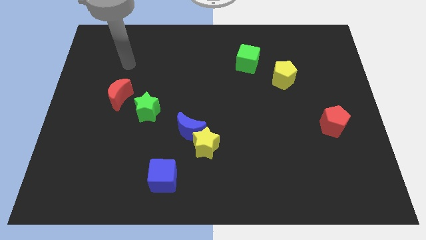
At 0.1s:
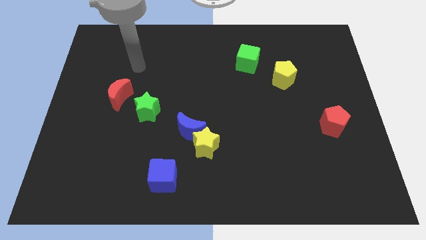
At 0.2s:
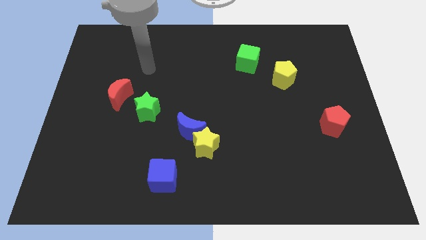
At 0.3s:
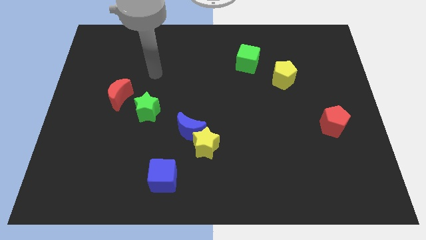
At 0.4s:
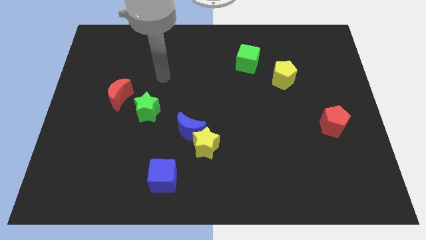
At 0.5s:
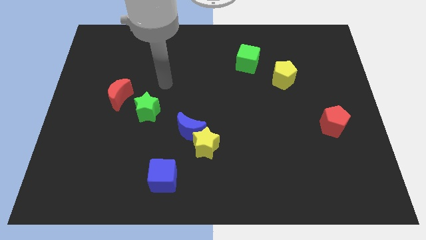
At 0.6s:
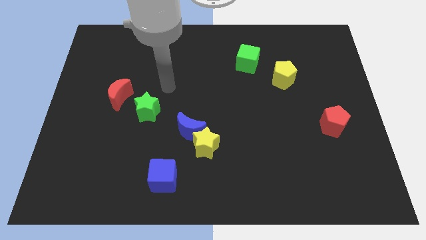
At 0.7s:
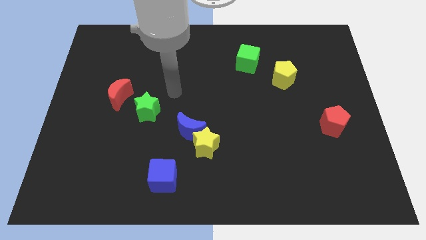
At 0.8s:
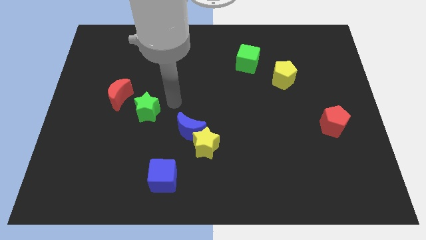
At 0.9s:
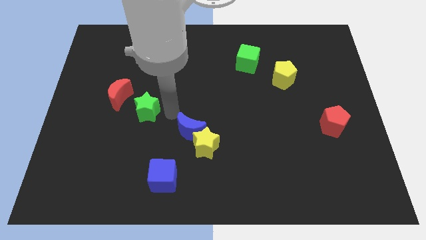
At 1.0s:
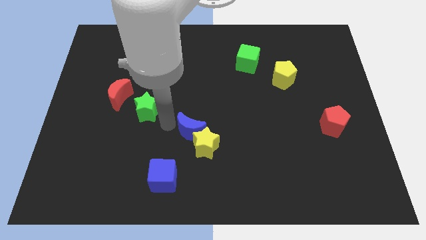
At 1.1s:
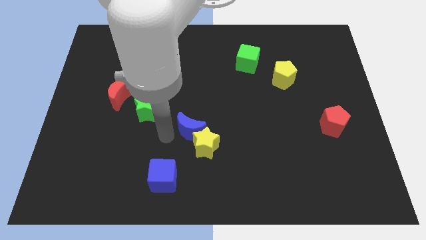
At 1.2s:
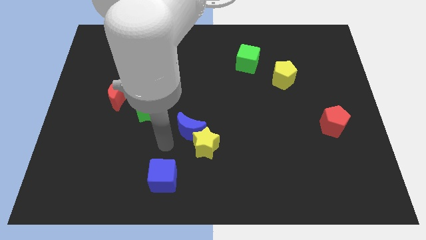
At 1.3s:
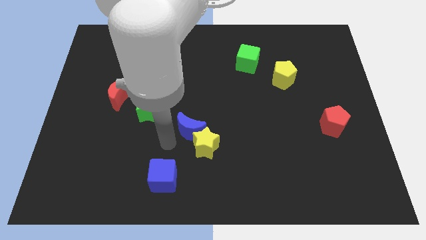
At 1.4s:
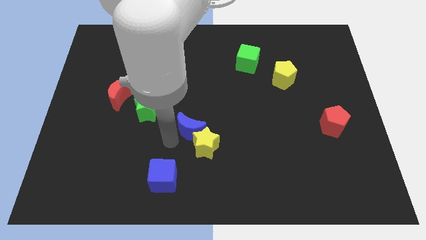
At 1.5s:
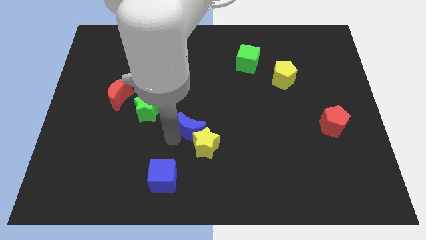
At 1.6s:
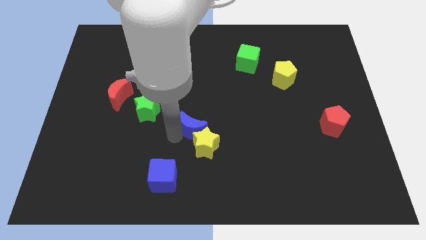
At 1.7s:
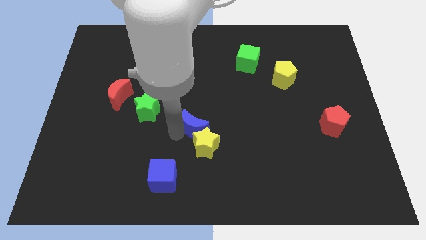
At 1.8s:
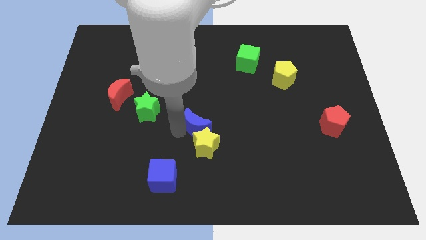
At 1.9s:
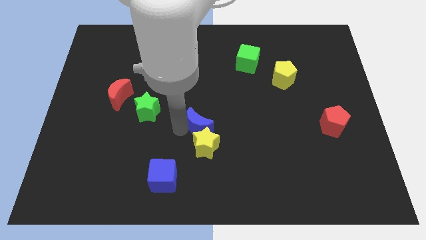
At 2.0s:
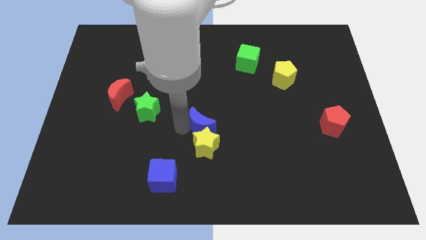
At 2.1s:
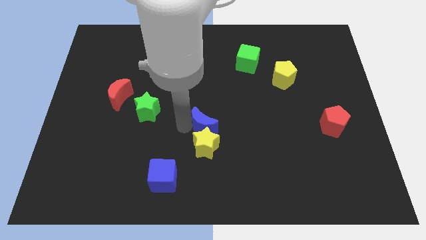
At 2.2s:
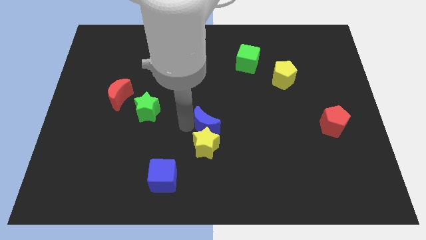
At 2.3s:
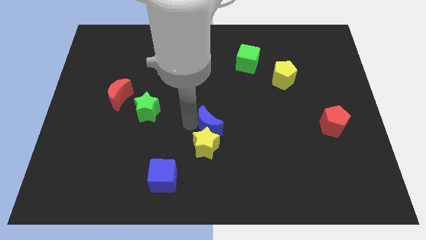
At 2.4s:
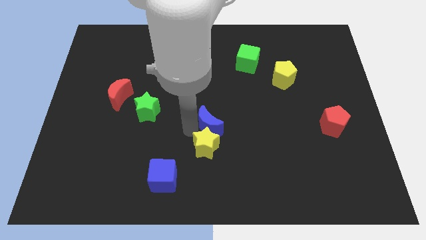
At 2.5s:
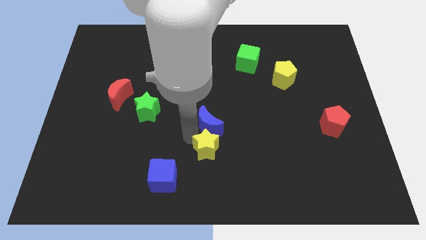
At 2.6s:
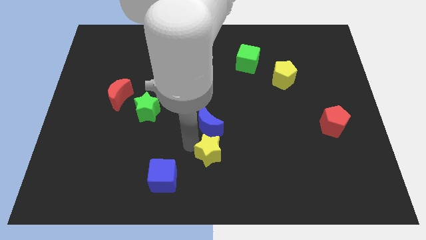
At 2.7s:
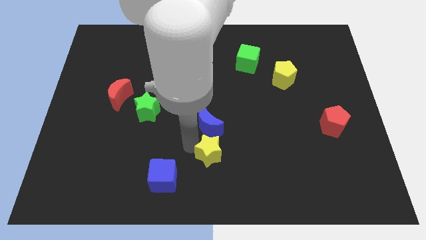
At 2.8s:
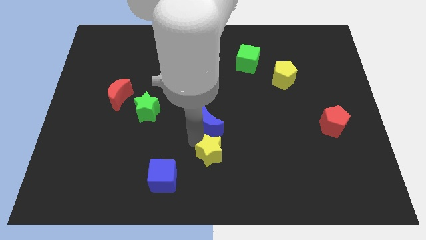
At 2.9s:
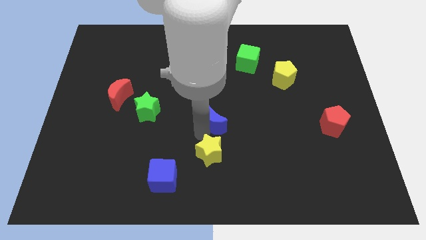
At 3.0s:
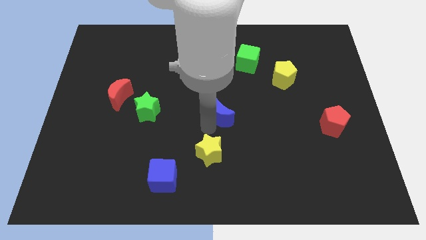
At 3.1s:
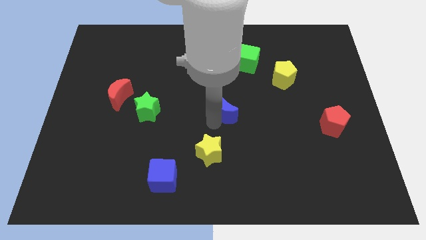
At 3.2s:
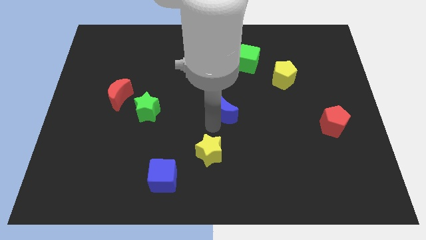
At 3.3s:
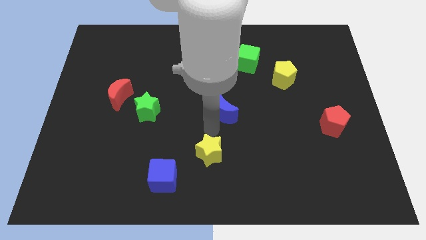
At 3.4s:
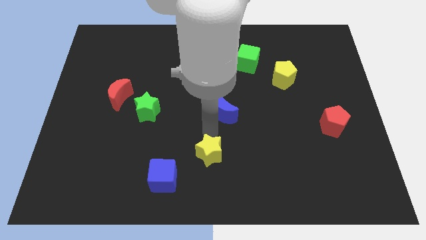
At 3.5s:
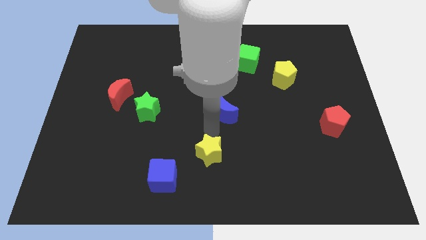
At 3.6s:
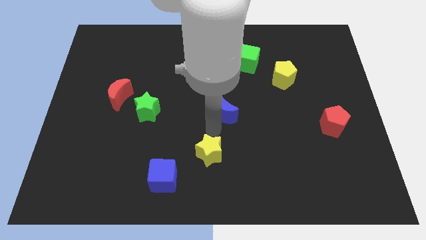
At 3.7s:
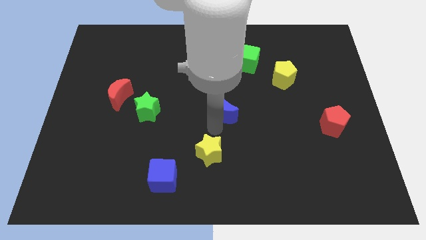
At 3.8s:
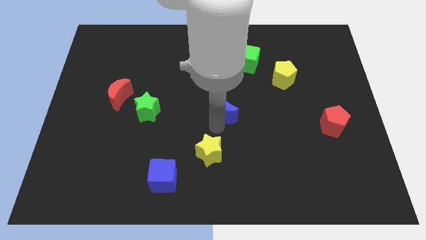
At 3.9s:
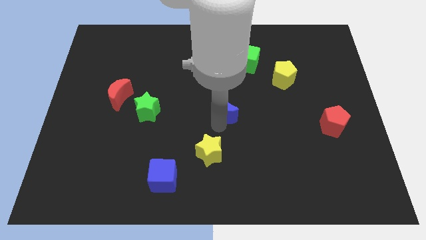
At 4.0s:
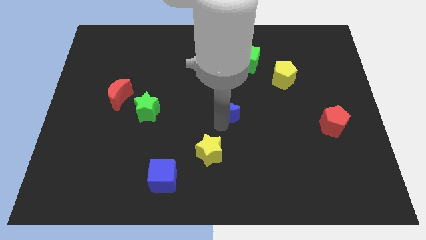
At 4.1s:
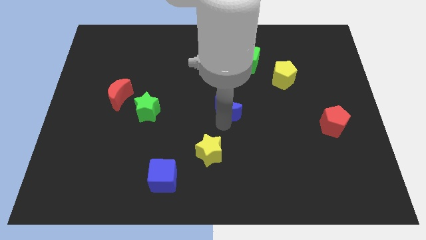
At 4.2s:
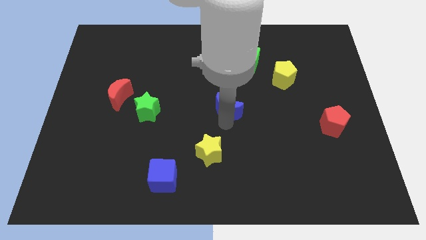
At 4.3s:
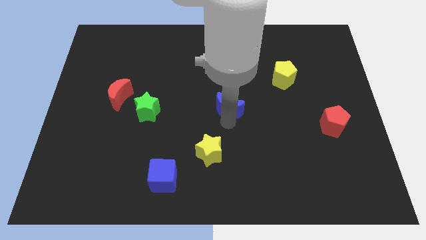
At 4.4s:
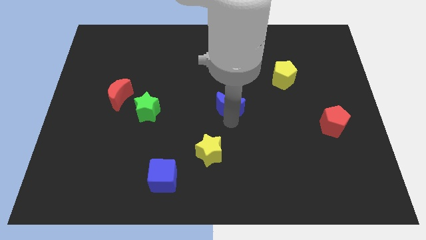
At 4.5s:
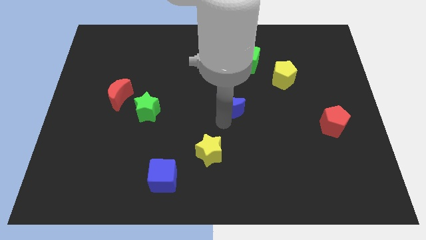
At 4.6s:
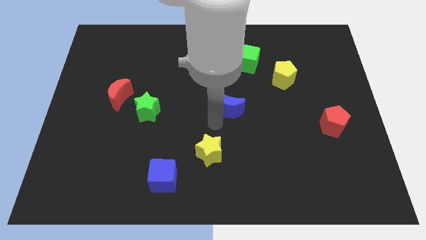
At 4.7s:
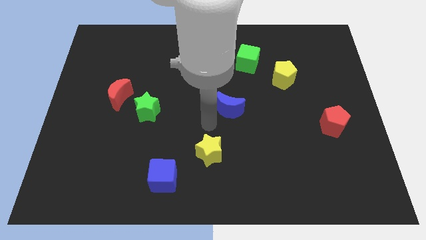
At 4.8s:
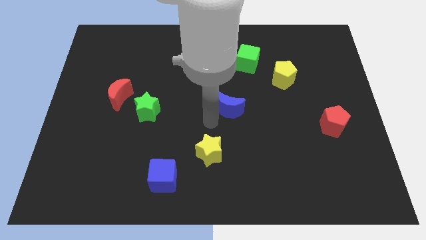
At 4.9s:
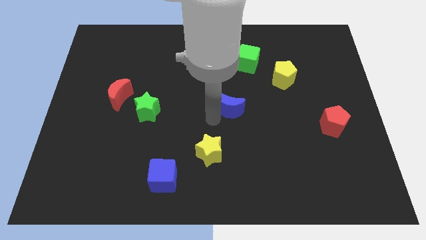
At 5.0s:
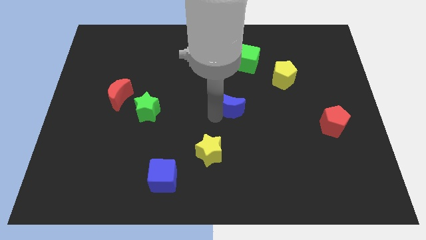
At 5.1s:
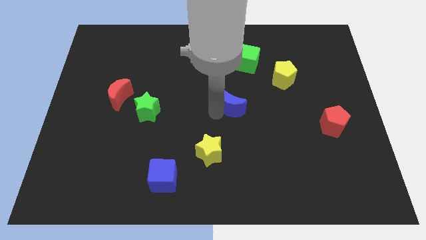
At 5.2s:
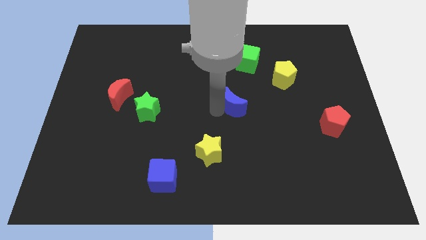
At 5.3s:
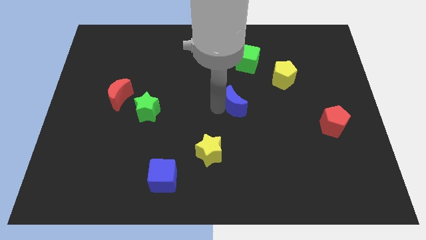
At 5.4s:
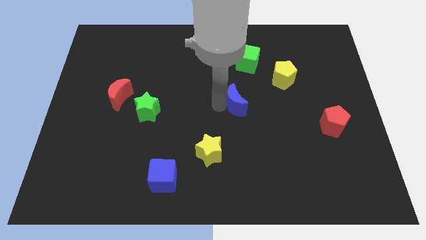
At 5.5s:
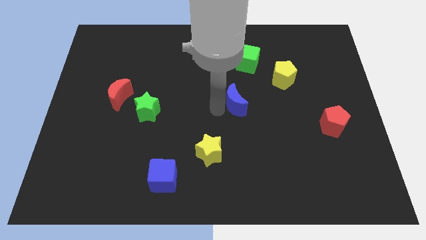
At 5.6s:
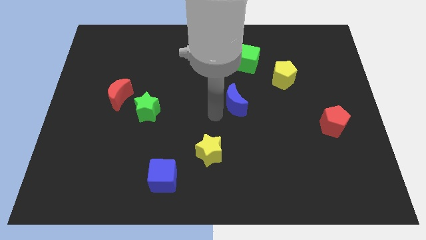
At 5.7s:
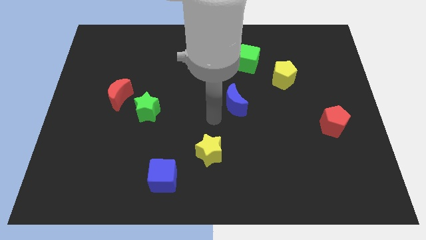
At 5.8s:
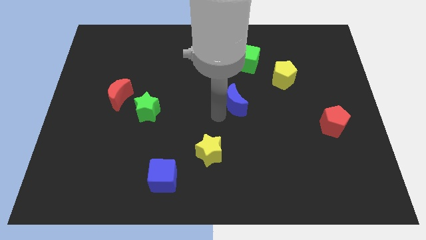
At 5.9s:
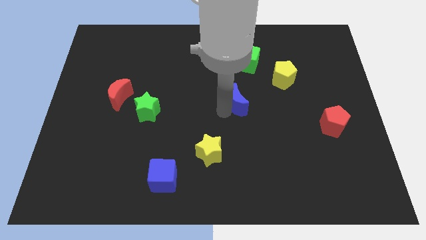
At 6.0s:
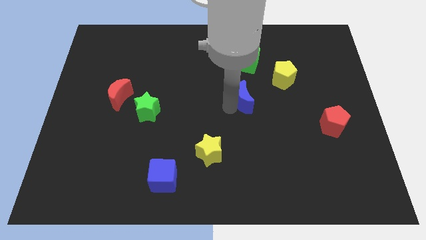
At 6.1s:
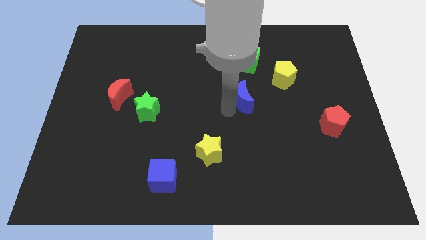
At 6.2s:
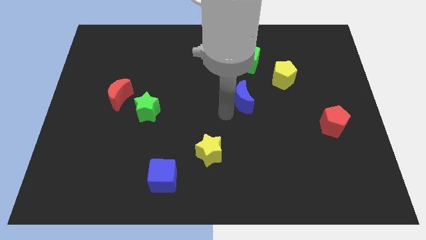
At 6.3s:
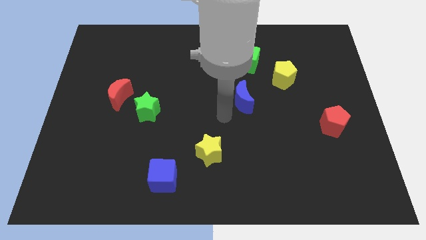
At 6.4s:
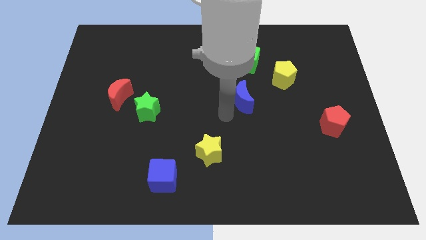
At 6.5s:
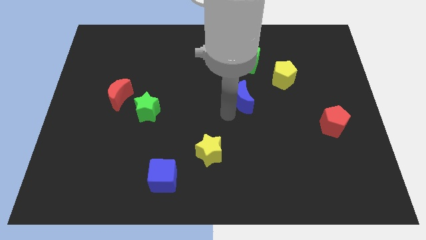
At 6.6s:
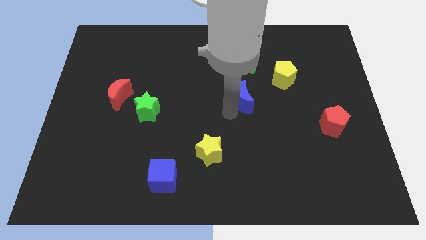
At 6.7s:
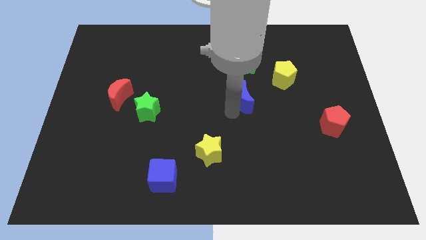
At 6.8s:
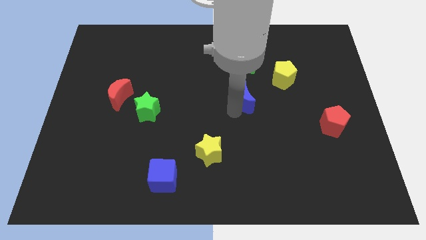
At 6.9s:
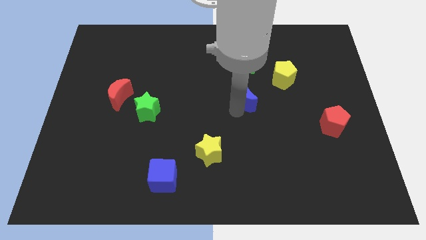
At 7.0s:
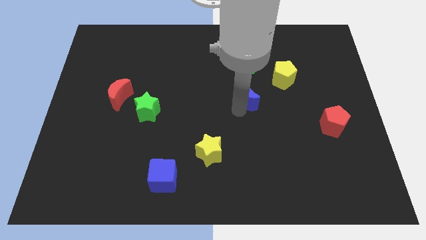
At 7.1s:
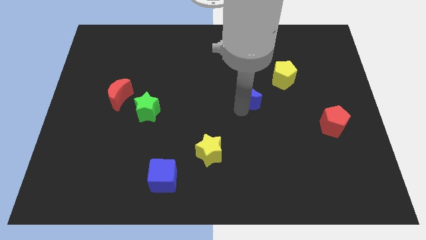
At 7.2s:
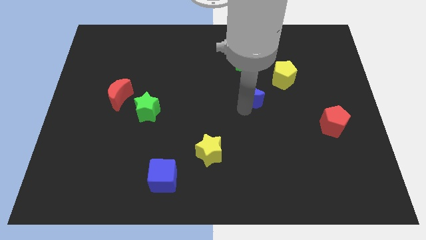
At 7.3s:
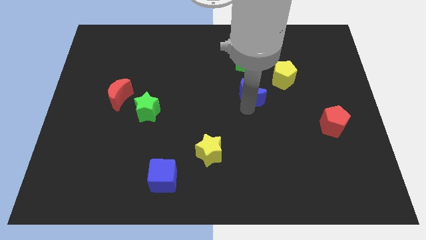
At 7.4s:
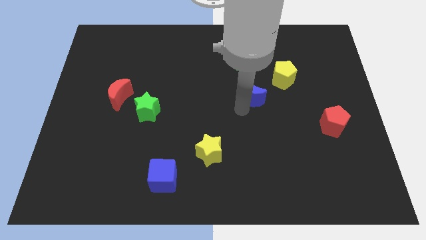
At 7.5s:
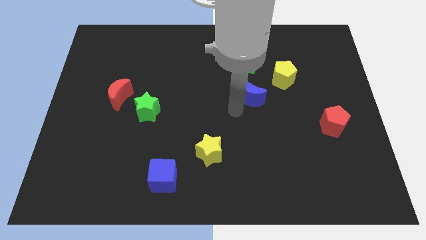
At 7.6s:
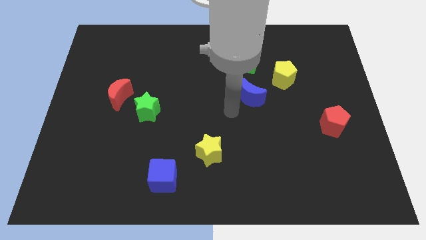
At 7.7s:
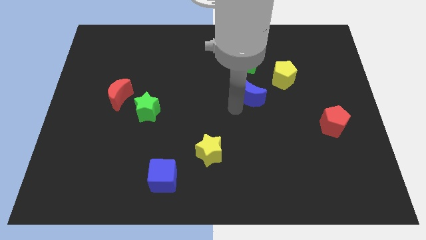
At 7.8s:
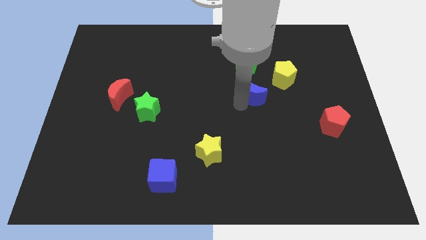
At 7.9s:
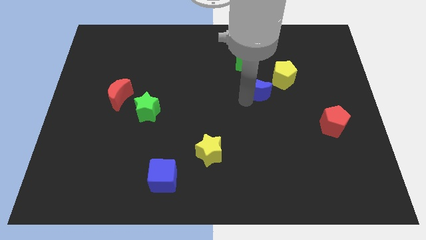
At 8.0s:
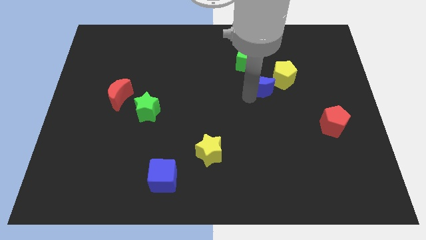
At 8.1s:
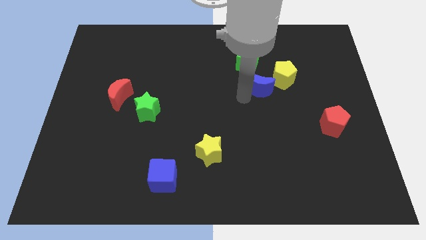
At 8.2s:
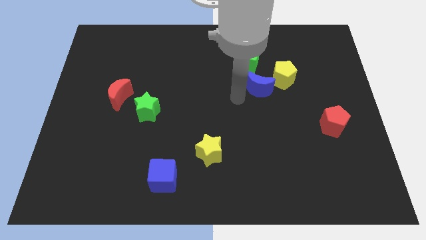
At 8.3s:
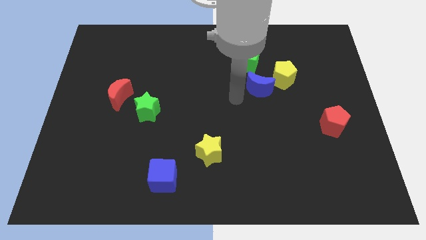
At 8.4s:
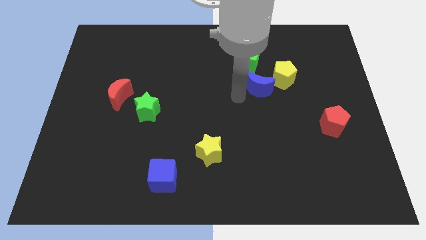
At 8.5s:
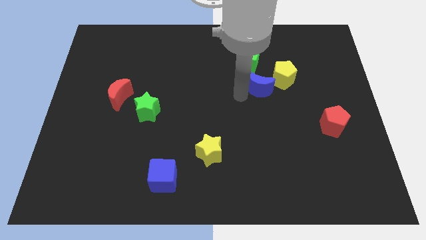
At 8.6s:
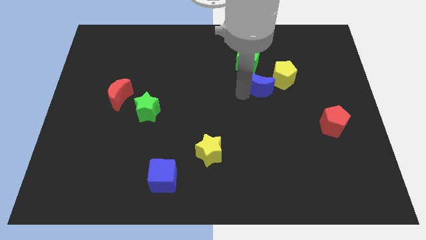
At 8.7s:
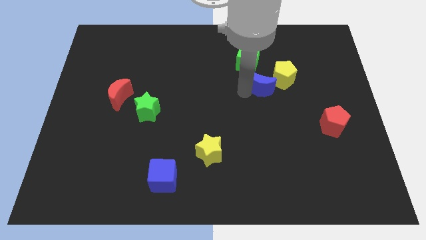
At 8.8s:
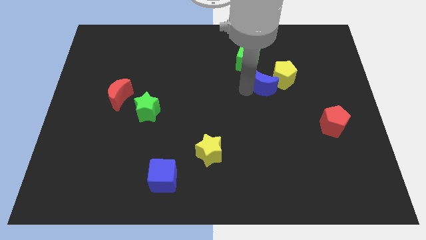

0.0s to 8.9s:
push the blue moon close to the yellow pentagon
